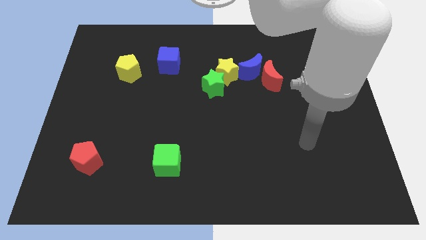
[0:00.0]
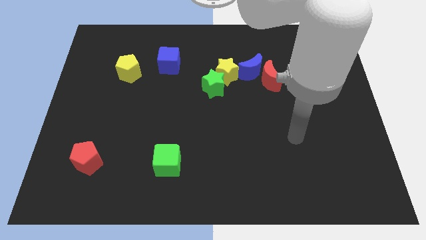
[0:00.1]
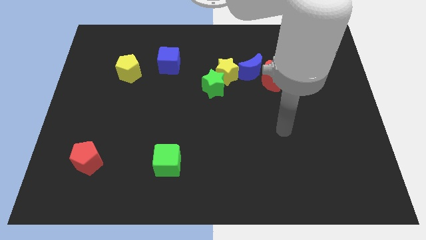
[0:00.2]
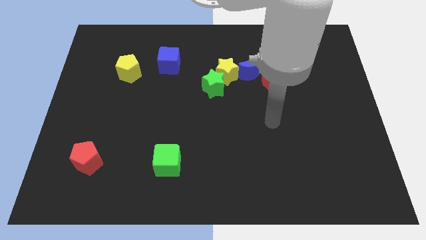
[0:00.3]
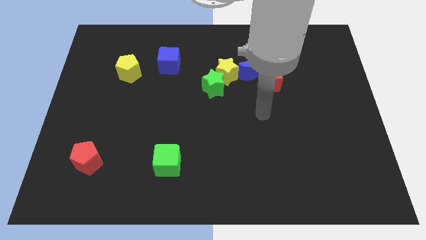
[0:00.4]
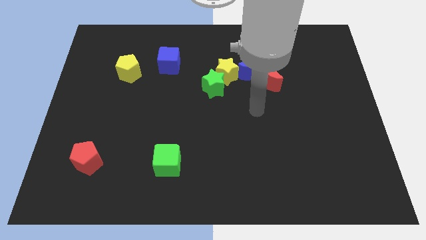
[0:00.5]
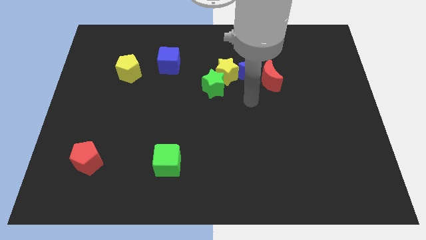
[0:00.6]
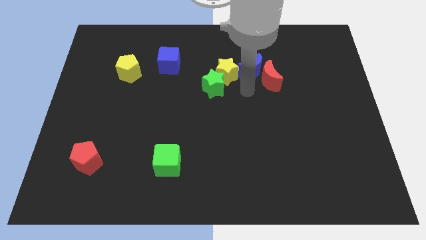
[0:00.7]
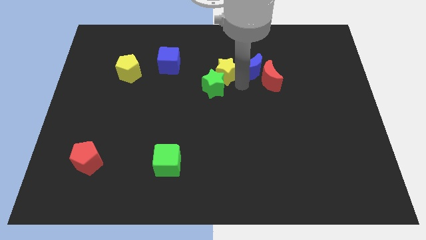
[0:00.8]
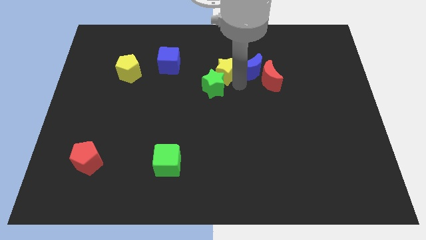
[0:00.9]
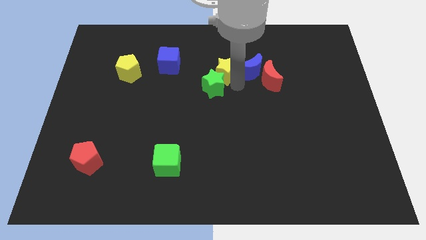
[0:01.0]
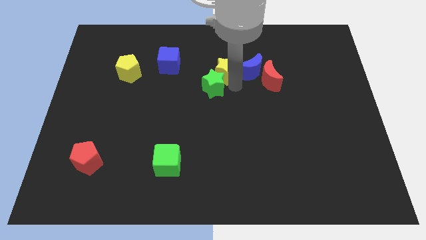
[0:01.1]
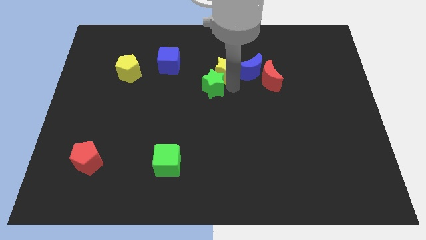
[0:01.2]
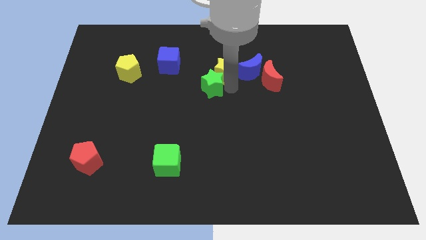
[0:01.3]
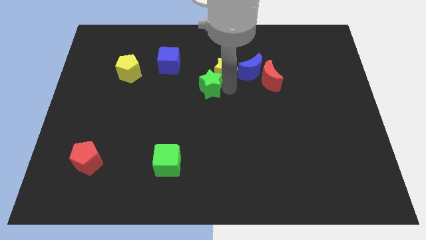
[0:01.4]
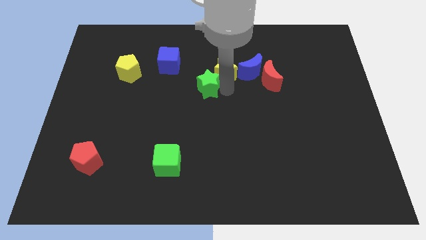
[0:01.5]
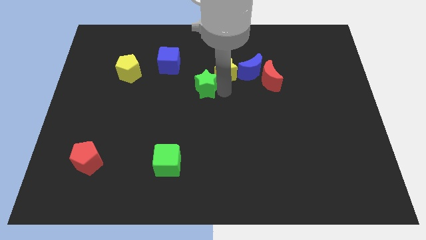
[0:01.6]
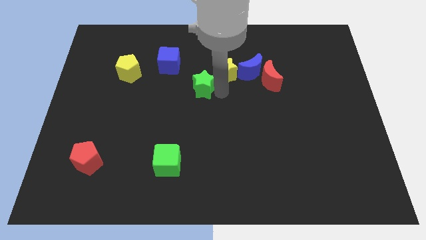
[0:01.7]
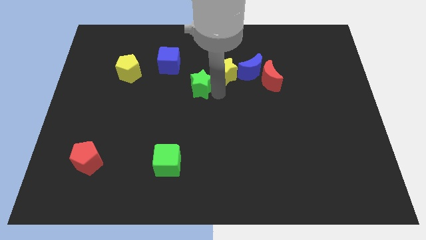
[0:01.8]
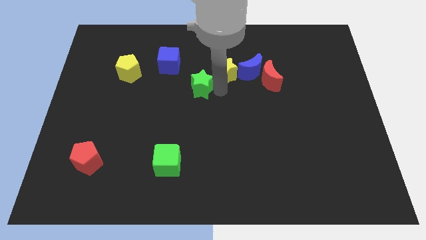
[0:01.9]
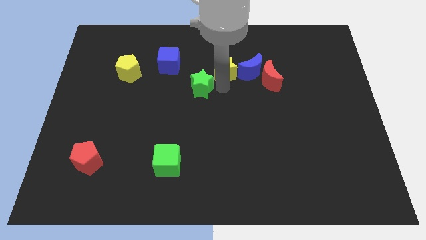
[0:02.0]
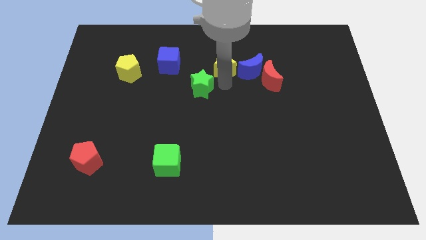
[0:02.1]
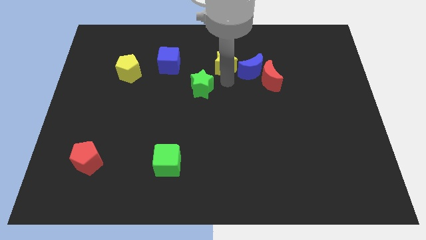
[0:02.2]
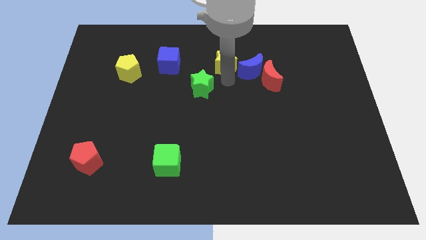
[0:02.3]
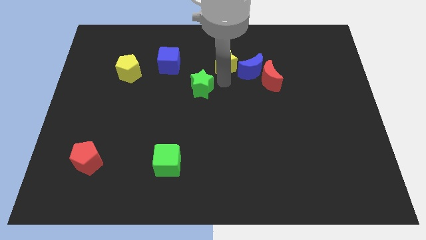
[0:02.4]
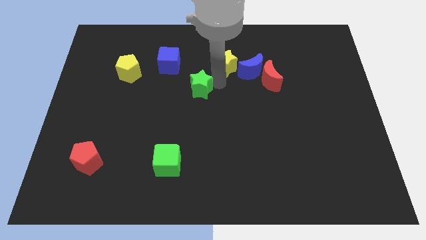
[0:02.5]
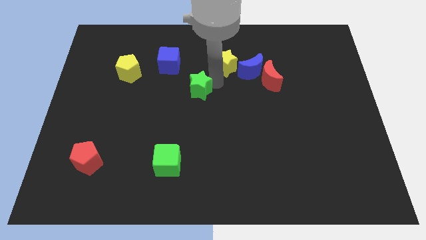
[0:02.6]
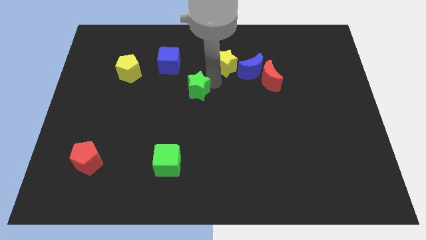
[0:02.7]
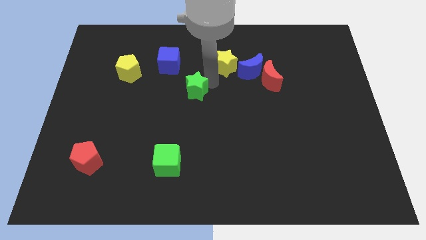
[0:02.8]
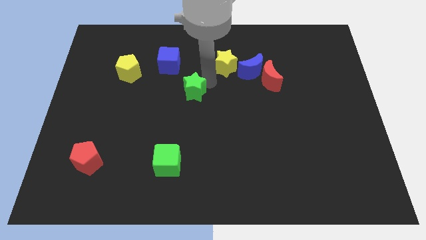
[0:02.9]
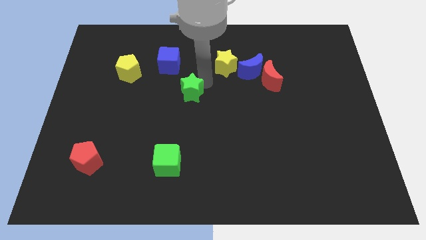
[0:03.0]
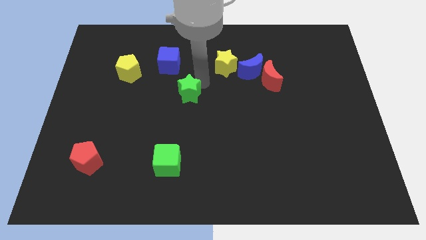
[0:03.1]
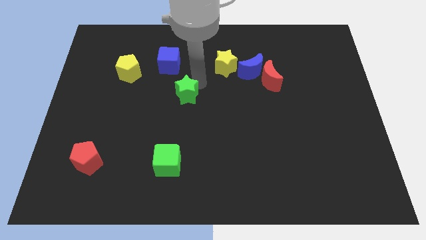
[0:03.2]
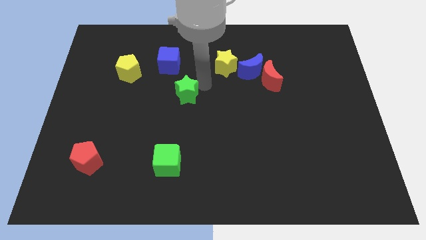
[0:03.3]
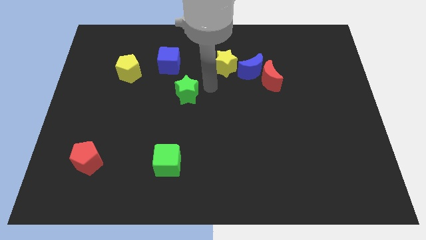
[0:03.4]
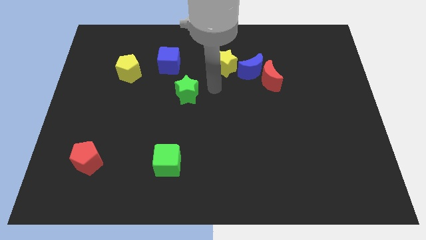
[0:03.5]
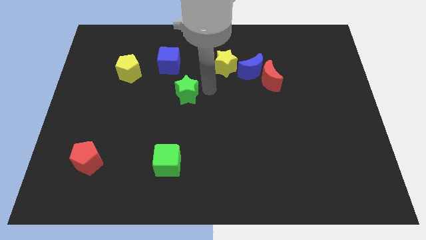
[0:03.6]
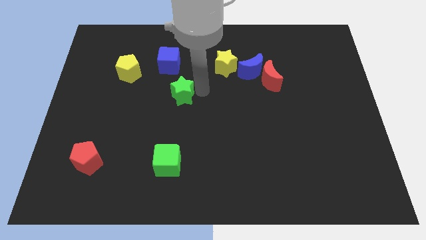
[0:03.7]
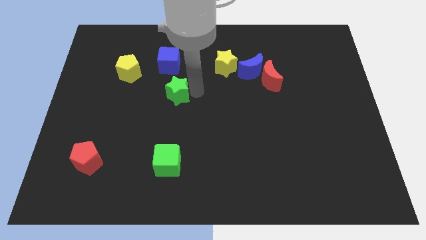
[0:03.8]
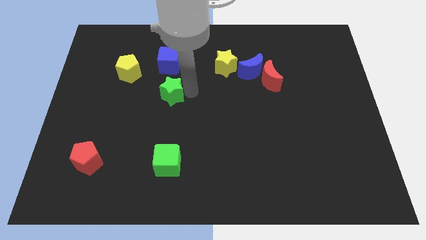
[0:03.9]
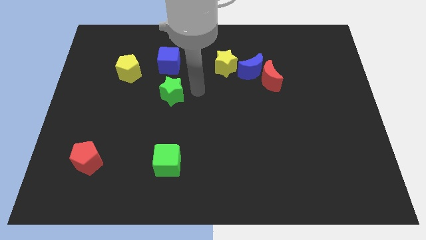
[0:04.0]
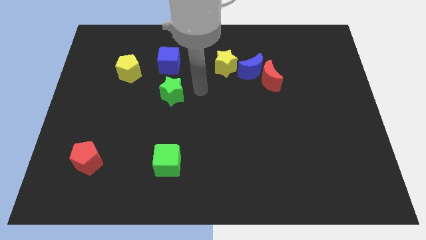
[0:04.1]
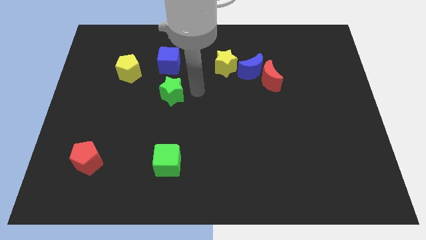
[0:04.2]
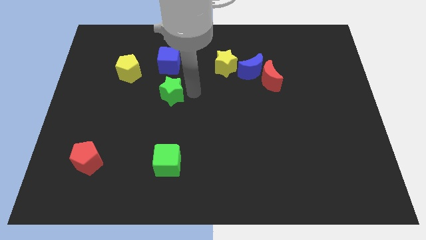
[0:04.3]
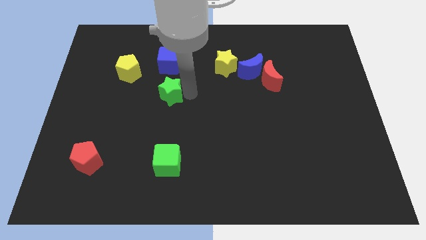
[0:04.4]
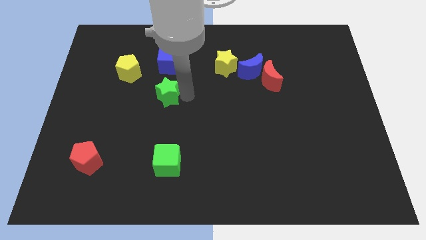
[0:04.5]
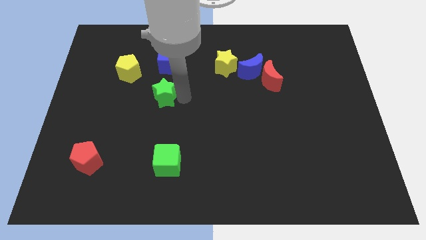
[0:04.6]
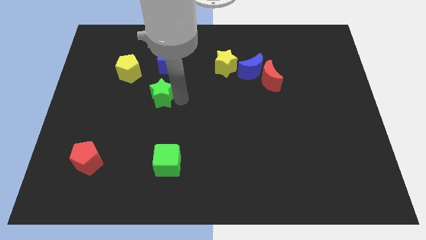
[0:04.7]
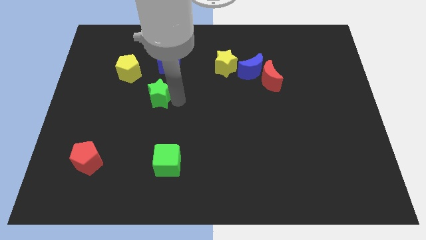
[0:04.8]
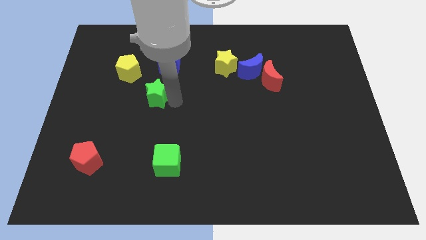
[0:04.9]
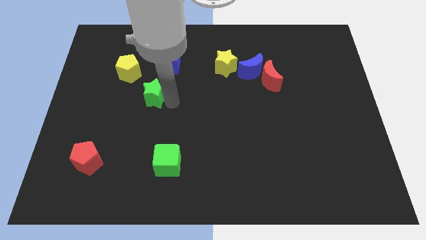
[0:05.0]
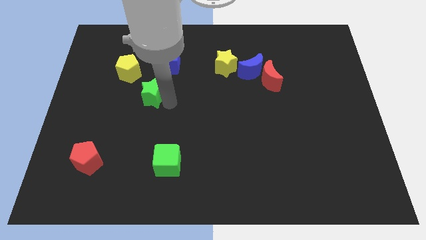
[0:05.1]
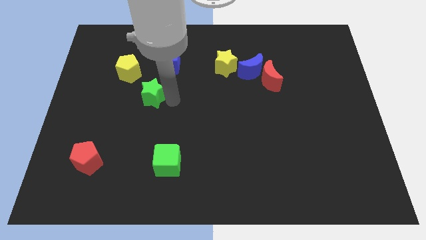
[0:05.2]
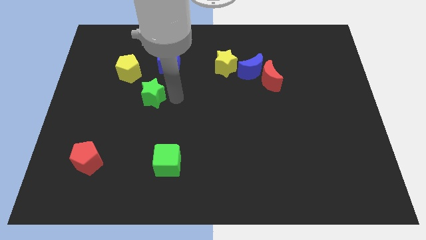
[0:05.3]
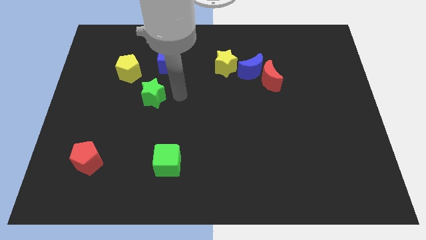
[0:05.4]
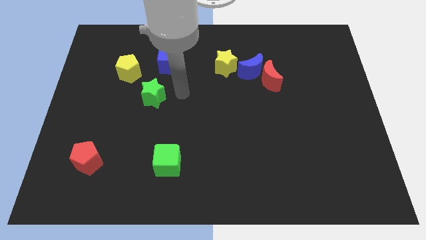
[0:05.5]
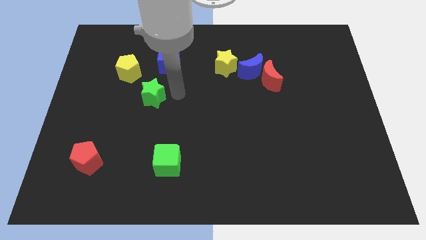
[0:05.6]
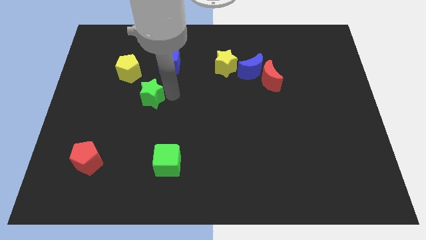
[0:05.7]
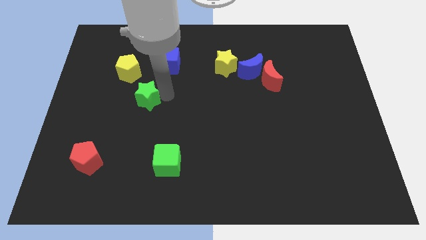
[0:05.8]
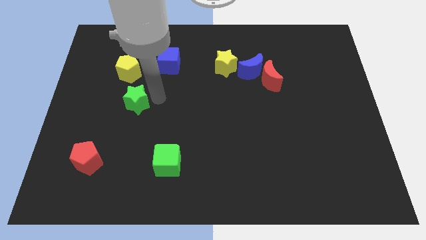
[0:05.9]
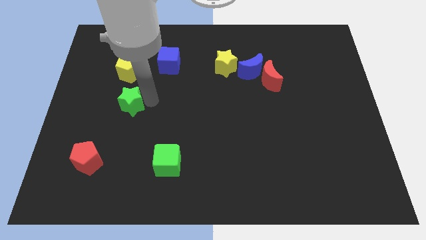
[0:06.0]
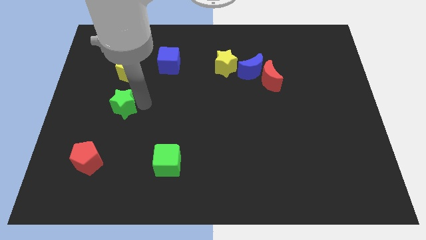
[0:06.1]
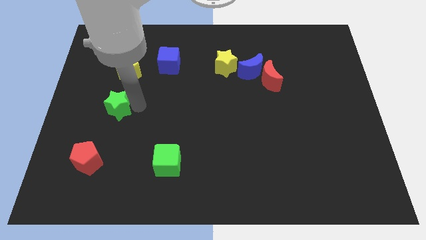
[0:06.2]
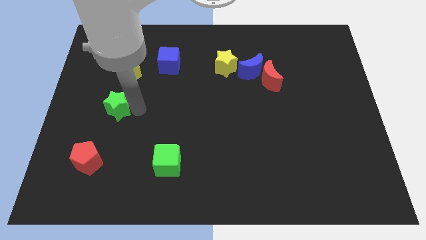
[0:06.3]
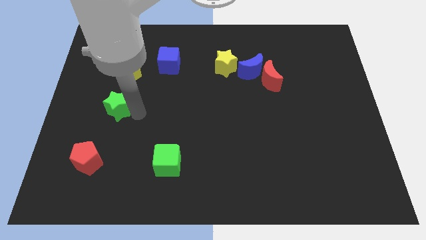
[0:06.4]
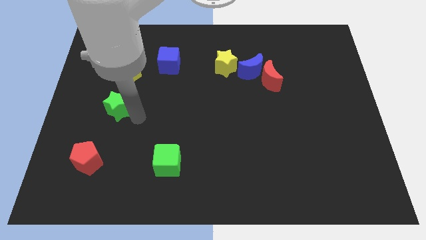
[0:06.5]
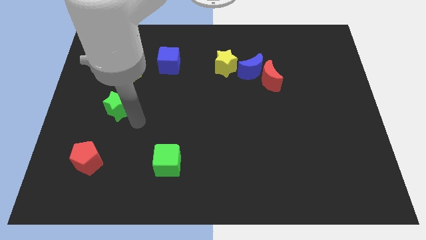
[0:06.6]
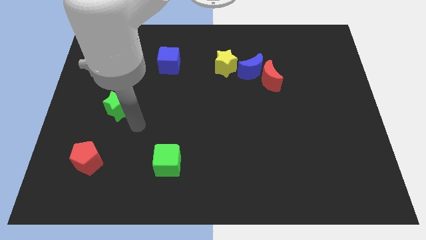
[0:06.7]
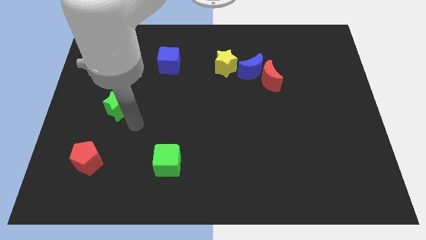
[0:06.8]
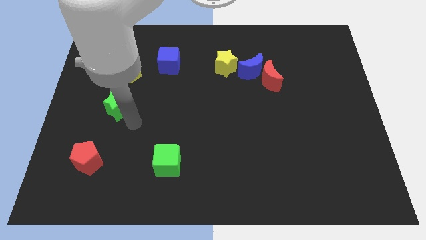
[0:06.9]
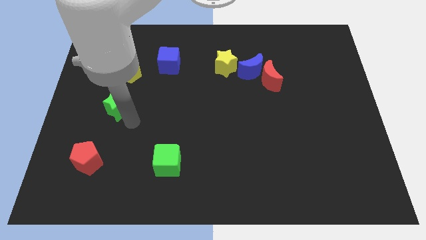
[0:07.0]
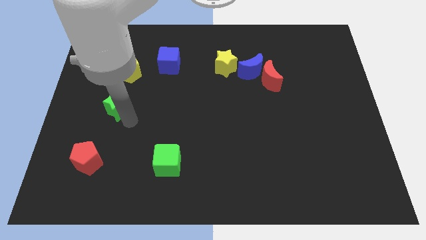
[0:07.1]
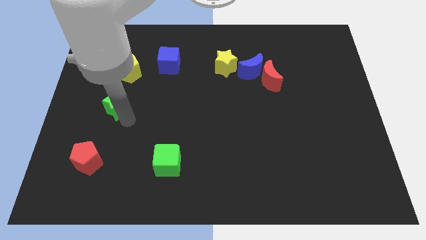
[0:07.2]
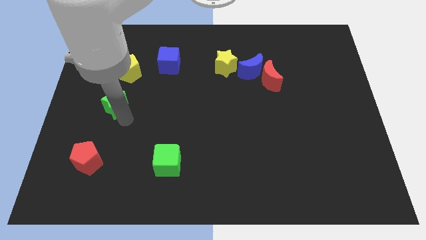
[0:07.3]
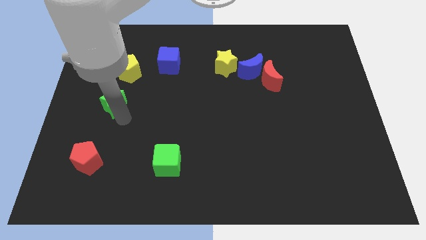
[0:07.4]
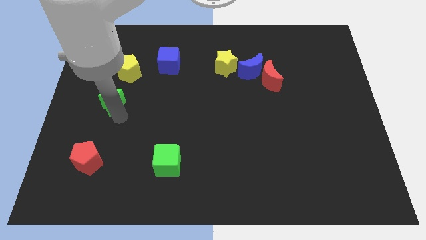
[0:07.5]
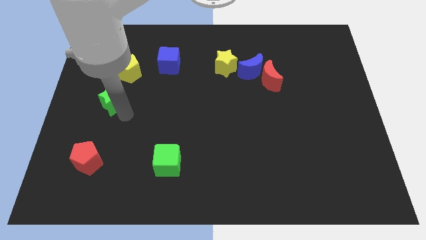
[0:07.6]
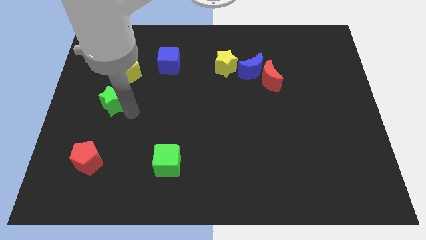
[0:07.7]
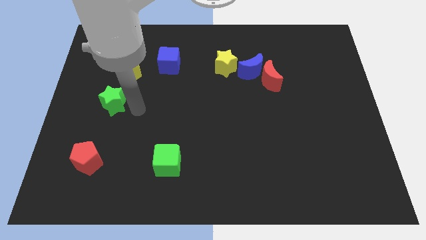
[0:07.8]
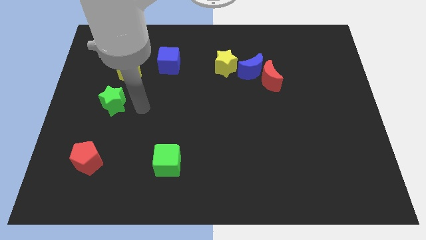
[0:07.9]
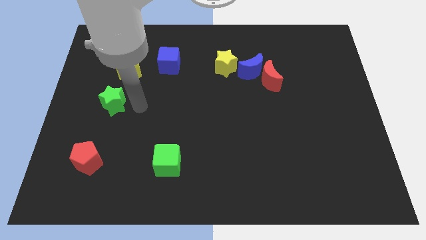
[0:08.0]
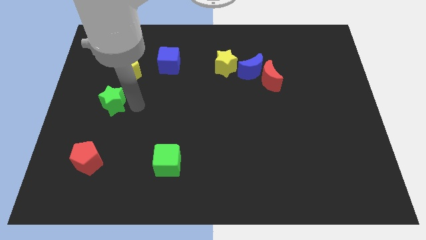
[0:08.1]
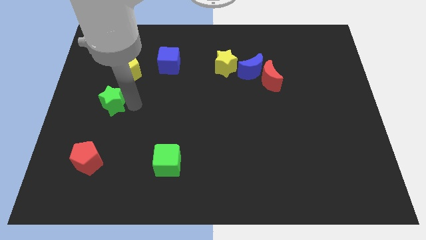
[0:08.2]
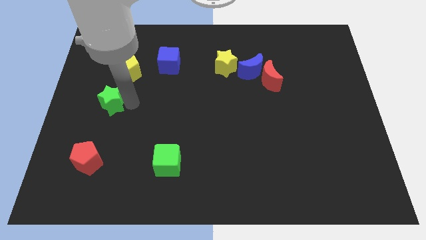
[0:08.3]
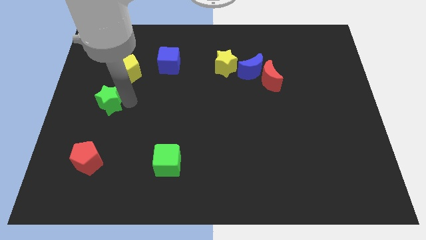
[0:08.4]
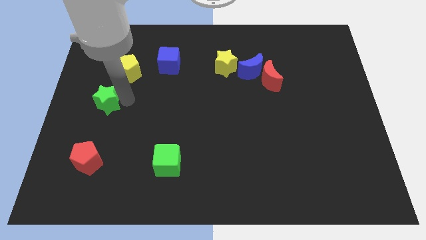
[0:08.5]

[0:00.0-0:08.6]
put the green star to the left side
